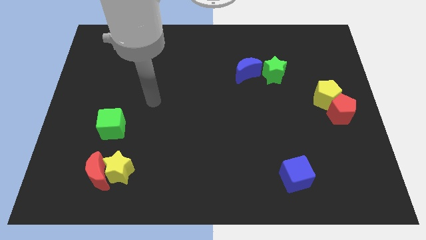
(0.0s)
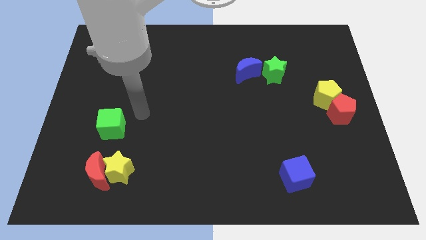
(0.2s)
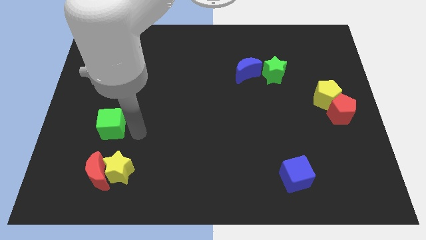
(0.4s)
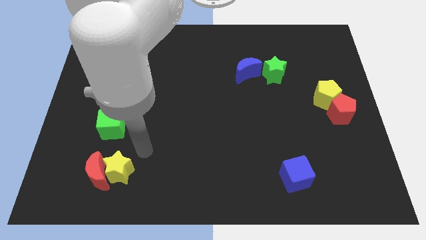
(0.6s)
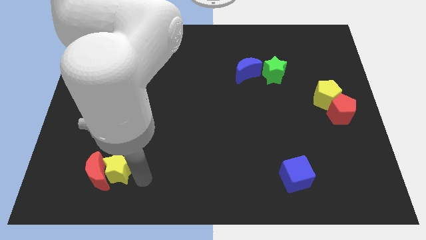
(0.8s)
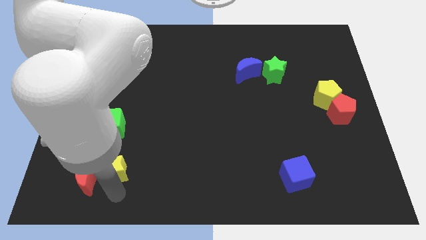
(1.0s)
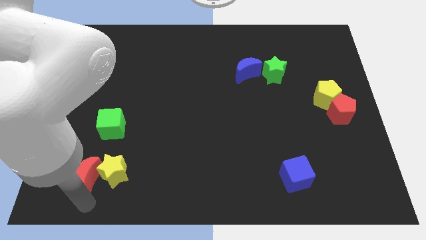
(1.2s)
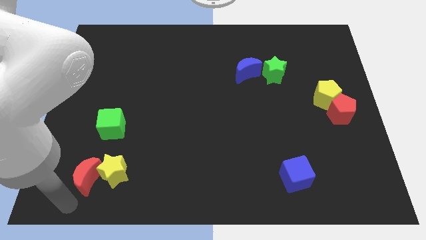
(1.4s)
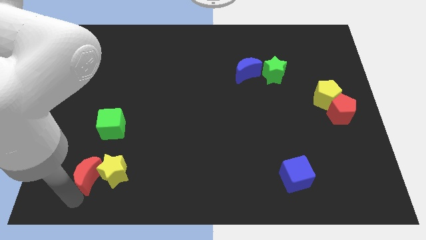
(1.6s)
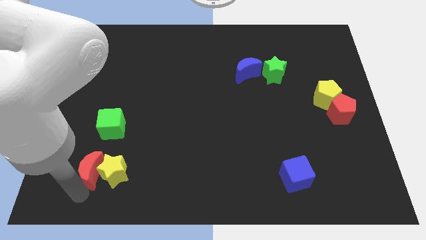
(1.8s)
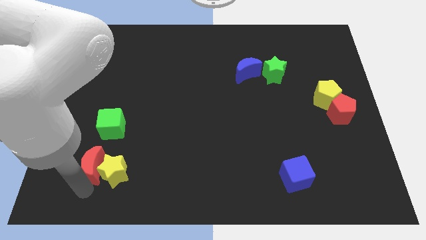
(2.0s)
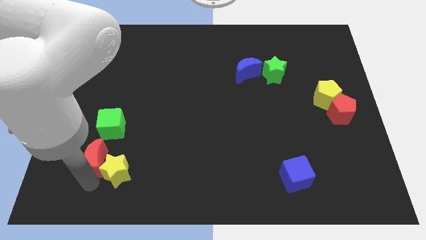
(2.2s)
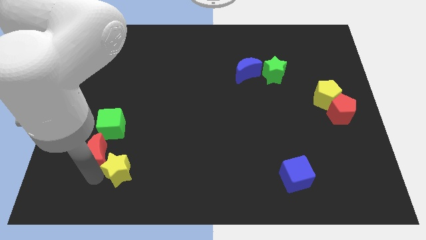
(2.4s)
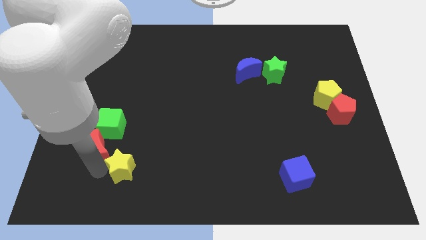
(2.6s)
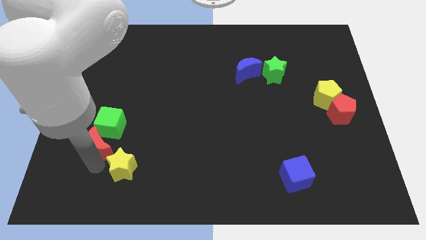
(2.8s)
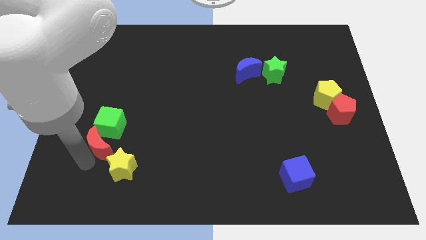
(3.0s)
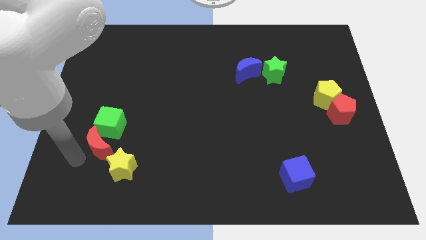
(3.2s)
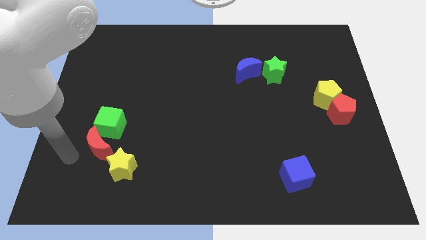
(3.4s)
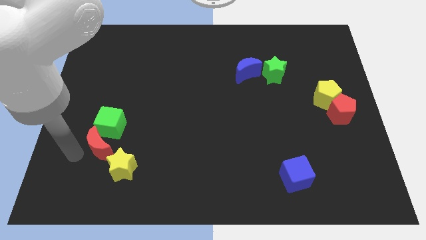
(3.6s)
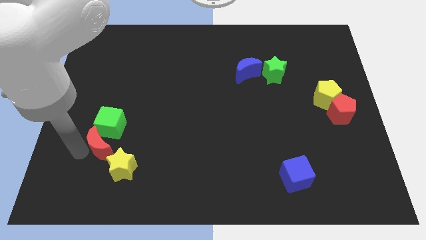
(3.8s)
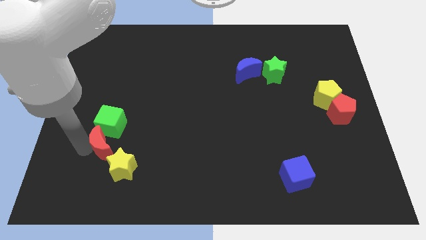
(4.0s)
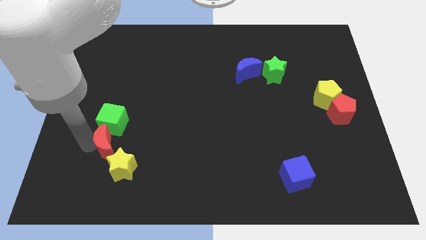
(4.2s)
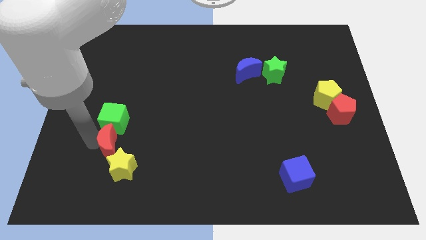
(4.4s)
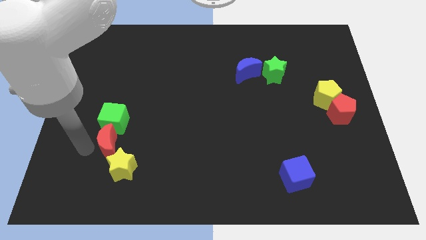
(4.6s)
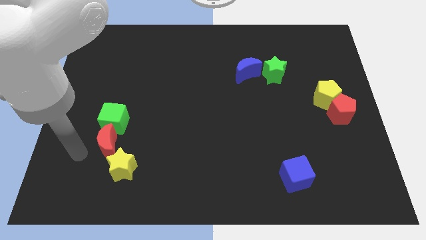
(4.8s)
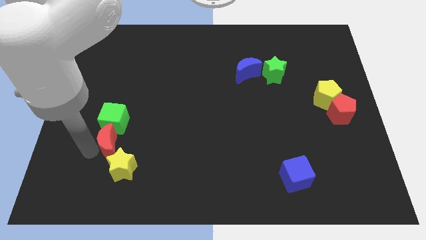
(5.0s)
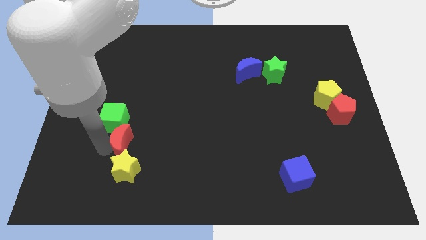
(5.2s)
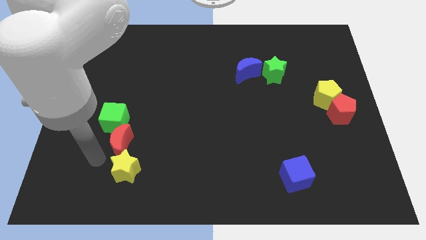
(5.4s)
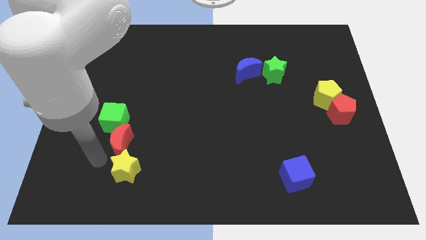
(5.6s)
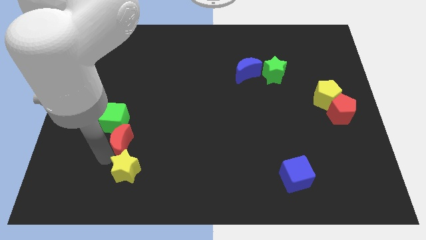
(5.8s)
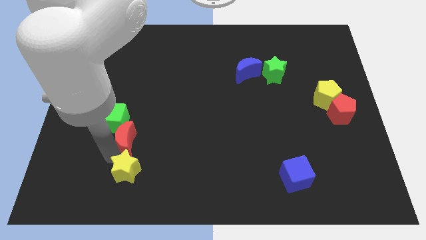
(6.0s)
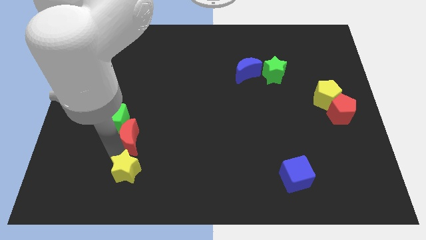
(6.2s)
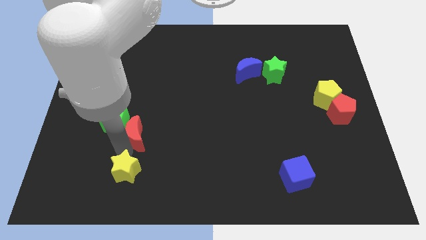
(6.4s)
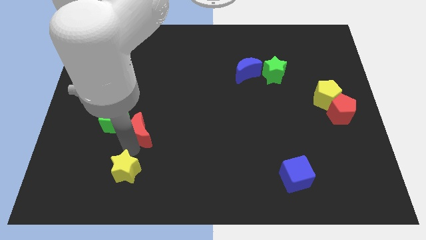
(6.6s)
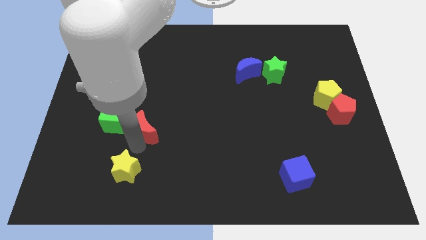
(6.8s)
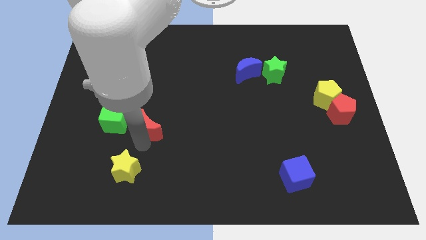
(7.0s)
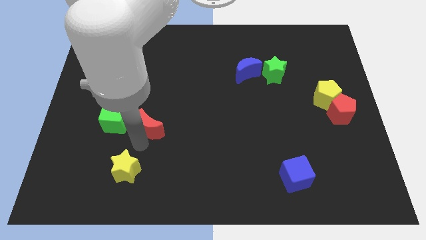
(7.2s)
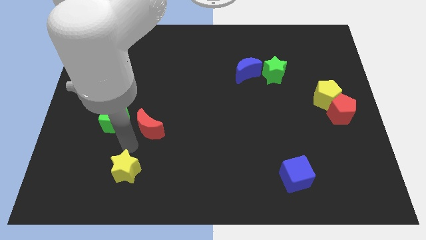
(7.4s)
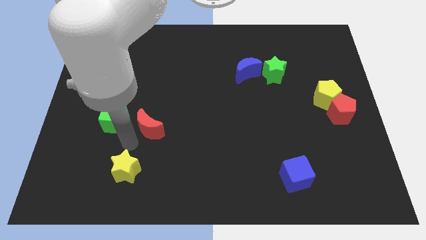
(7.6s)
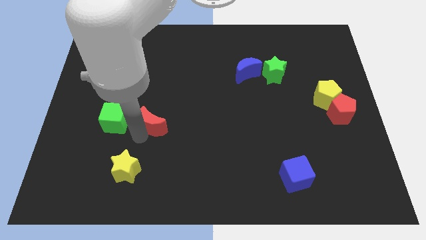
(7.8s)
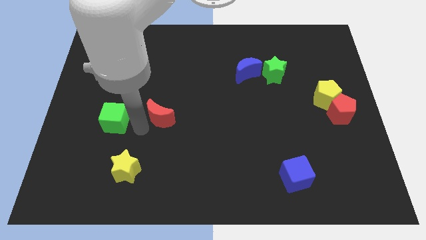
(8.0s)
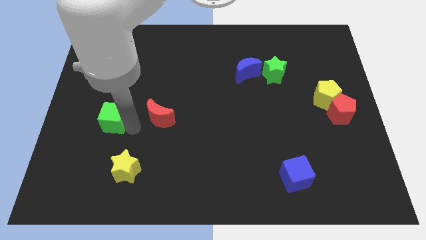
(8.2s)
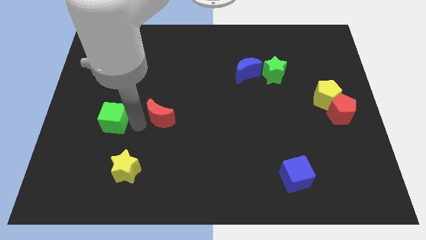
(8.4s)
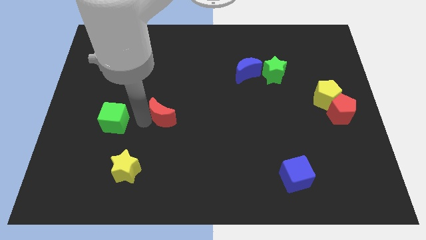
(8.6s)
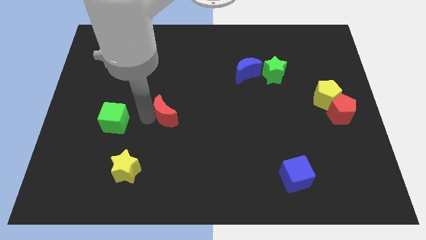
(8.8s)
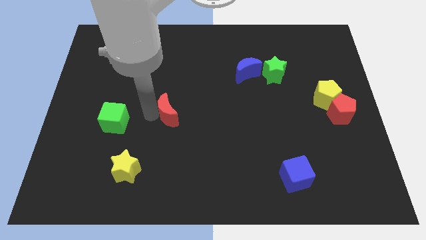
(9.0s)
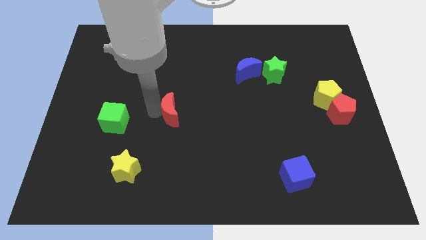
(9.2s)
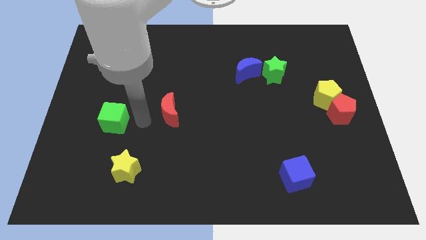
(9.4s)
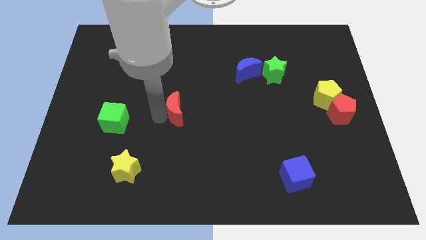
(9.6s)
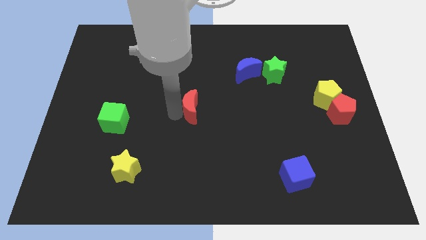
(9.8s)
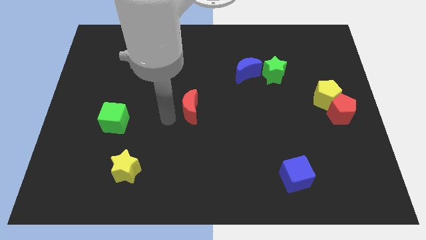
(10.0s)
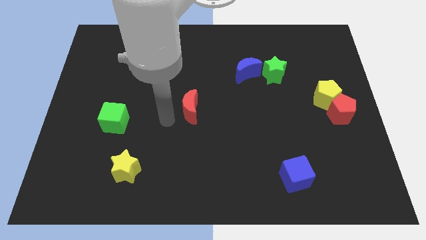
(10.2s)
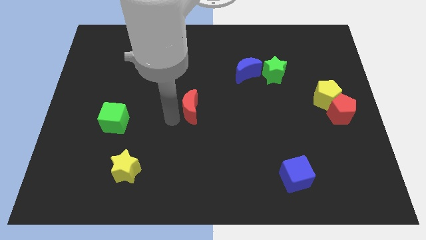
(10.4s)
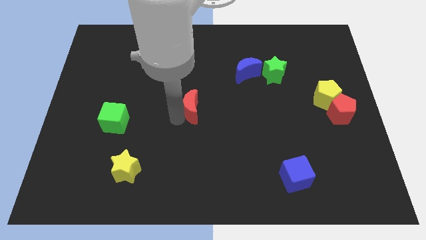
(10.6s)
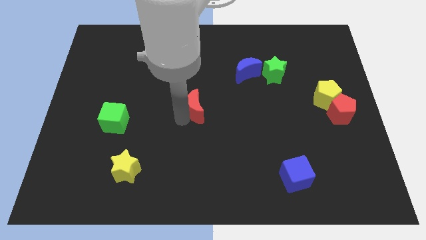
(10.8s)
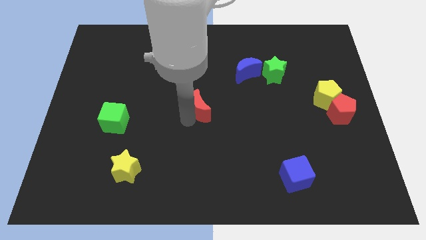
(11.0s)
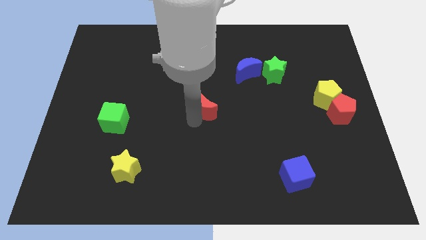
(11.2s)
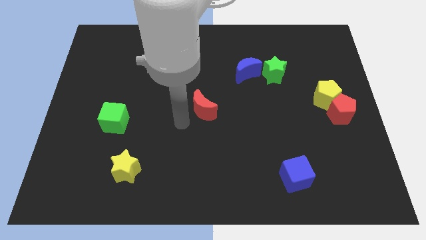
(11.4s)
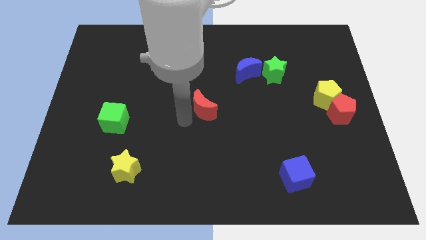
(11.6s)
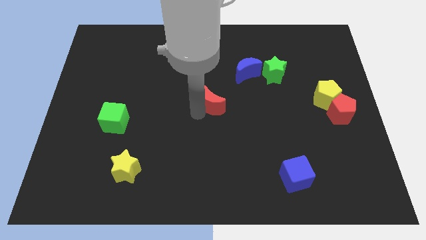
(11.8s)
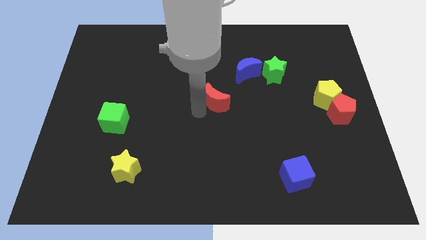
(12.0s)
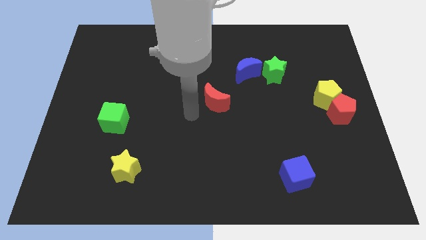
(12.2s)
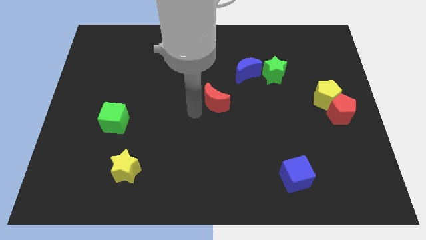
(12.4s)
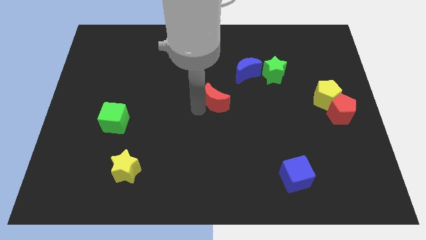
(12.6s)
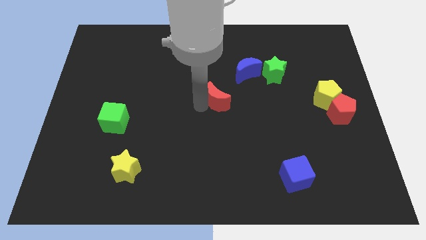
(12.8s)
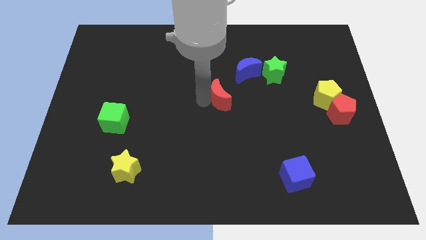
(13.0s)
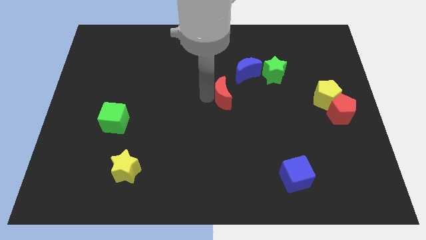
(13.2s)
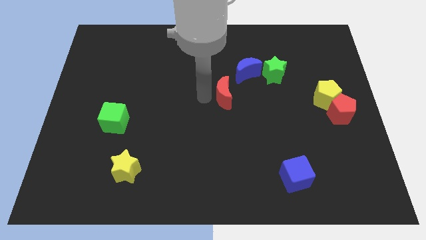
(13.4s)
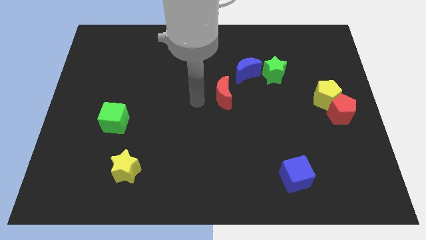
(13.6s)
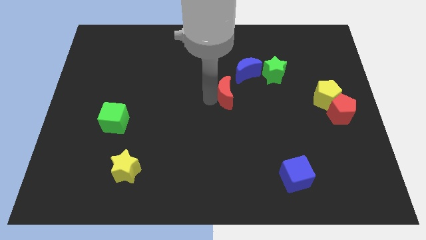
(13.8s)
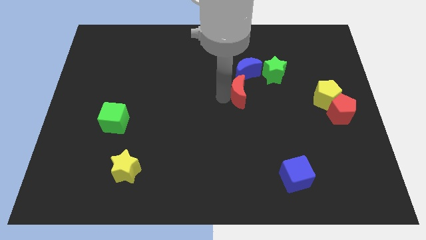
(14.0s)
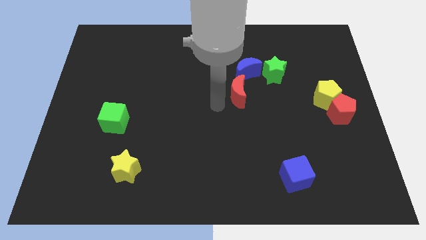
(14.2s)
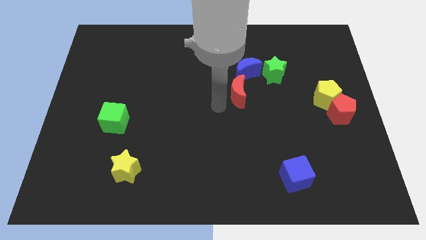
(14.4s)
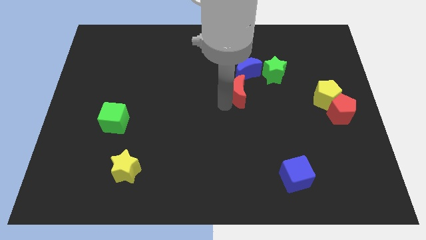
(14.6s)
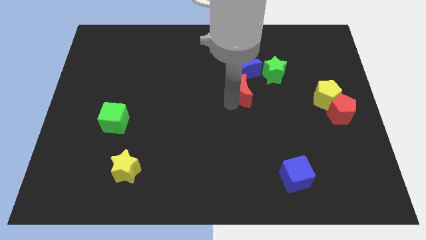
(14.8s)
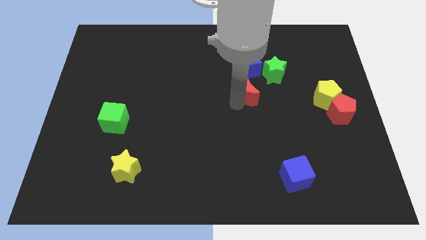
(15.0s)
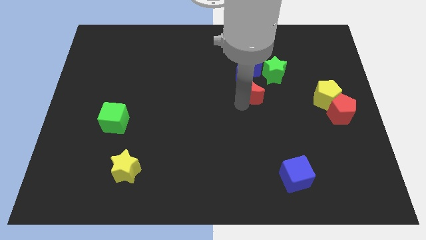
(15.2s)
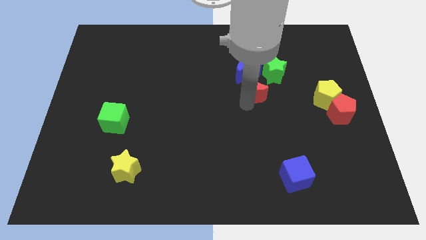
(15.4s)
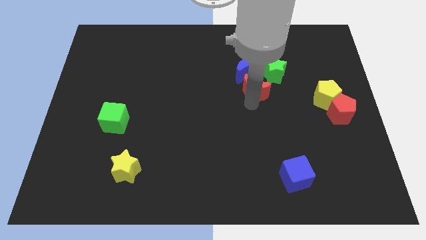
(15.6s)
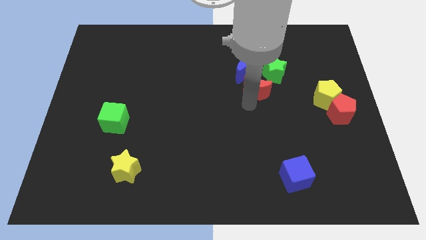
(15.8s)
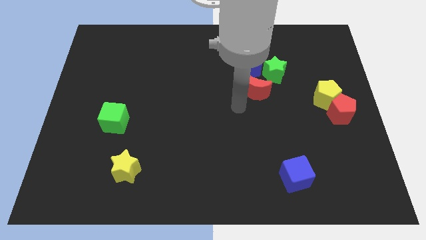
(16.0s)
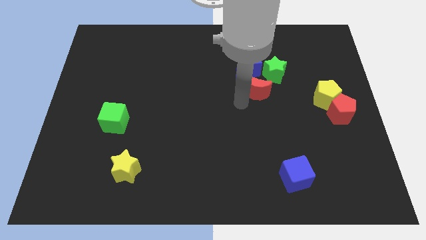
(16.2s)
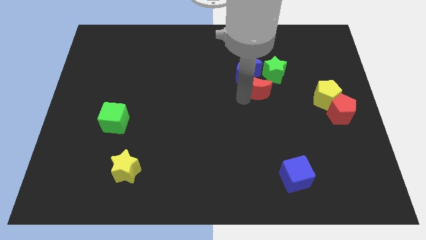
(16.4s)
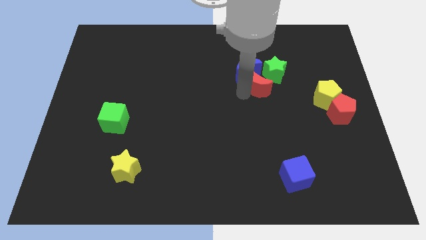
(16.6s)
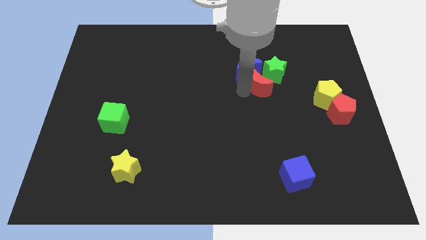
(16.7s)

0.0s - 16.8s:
move the red moon next to the green star
